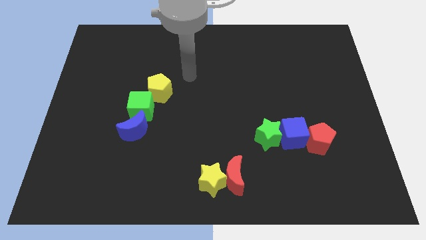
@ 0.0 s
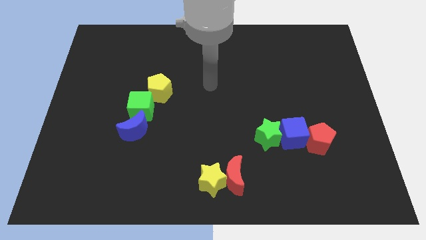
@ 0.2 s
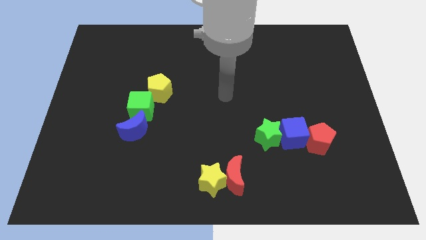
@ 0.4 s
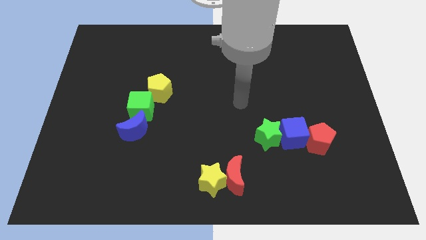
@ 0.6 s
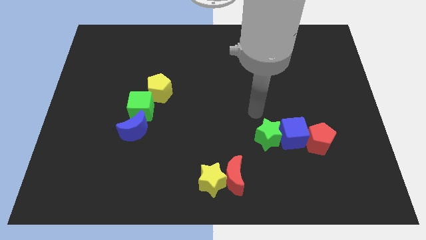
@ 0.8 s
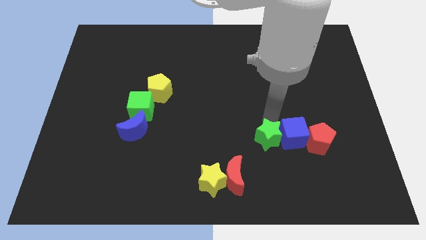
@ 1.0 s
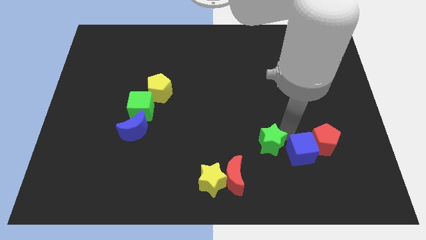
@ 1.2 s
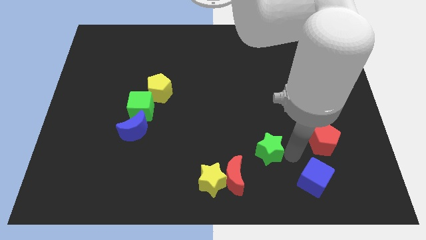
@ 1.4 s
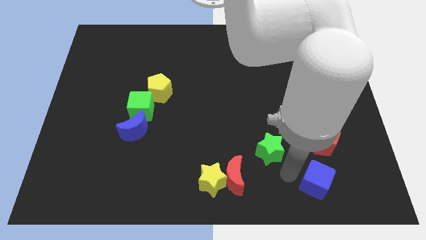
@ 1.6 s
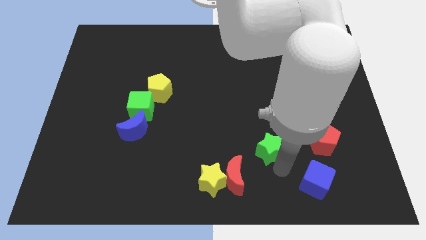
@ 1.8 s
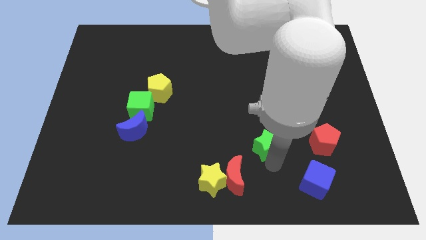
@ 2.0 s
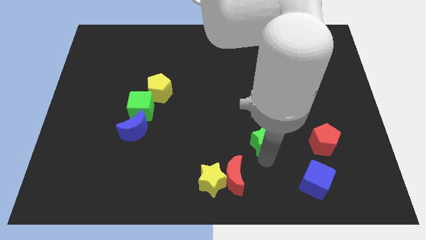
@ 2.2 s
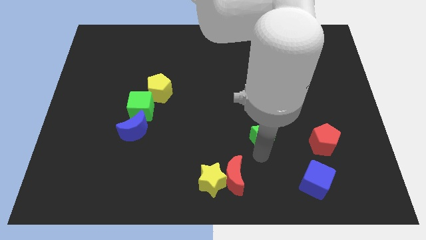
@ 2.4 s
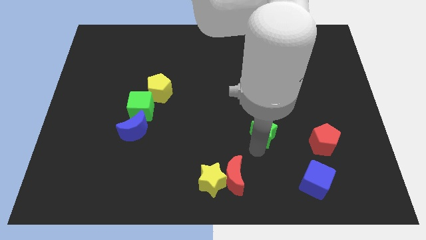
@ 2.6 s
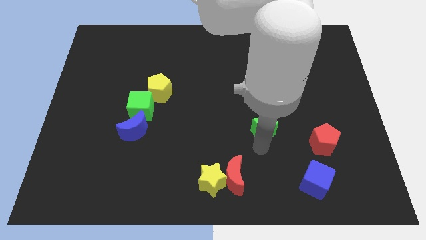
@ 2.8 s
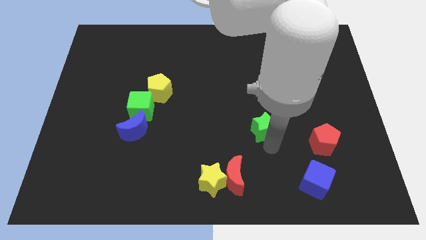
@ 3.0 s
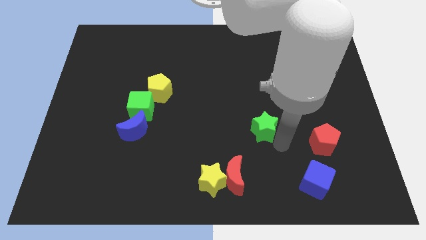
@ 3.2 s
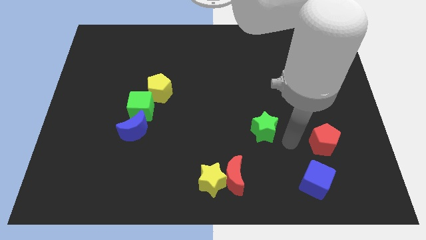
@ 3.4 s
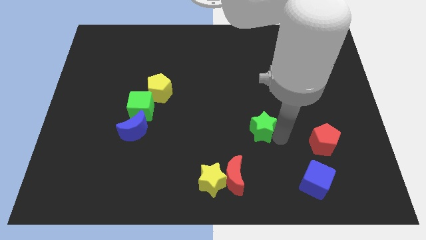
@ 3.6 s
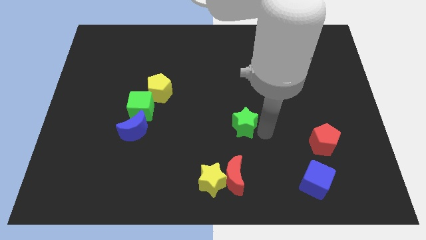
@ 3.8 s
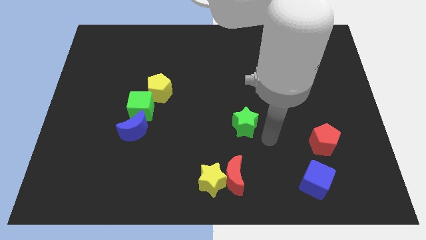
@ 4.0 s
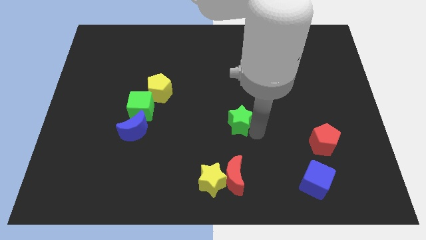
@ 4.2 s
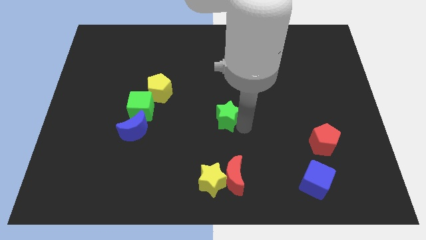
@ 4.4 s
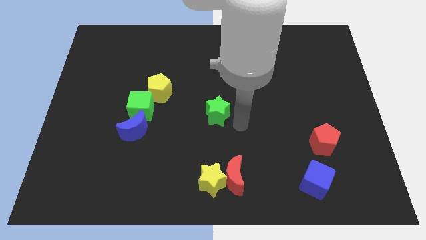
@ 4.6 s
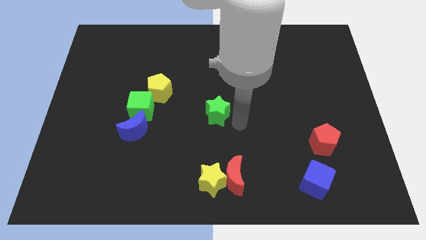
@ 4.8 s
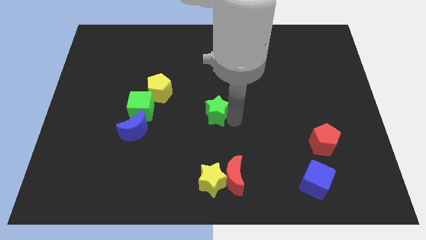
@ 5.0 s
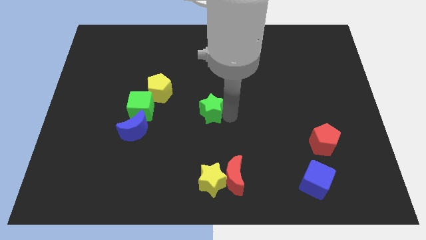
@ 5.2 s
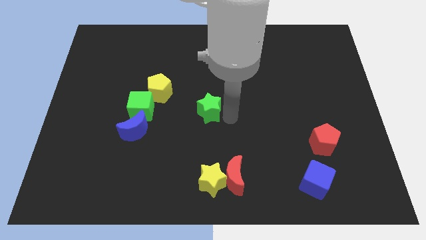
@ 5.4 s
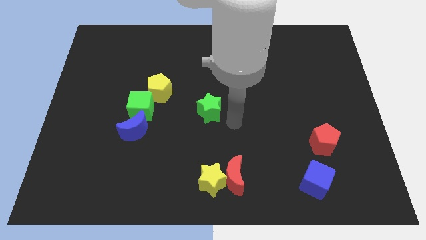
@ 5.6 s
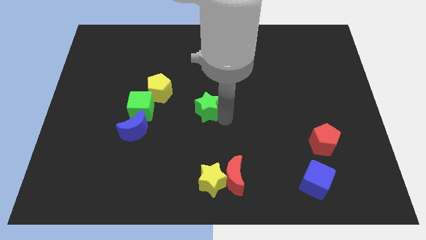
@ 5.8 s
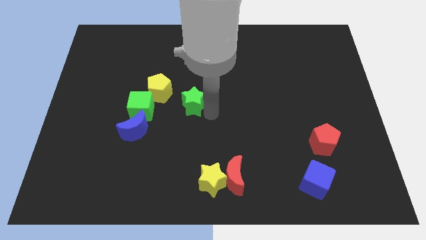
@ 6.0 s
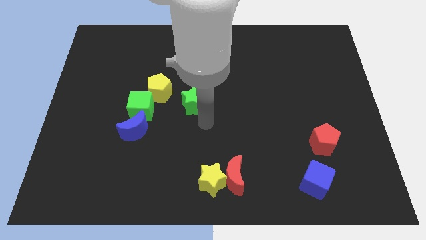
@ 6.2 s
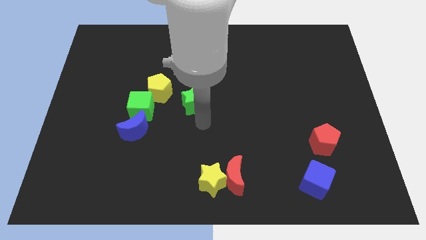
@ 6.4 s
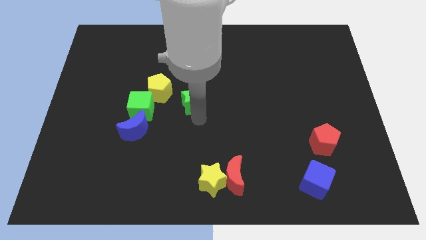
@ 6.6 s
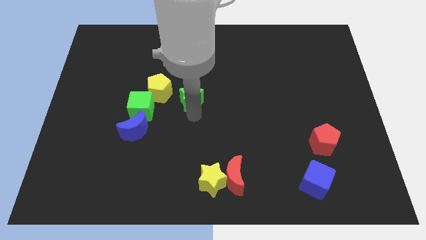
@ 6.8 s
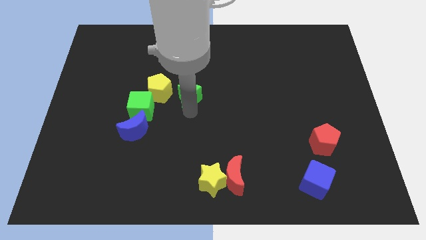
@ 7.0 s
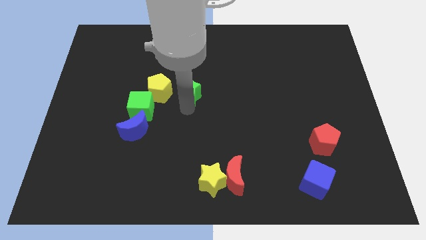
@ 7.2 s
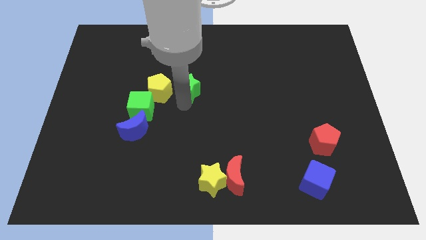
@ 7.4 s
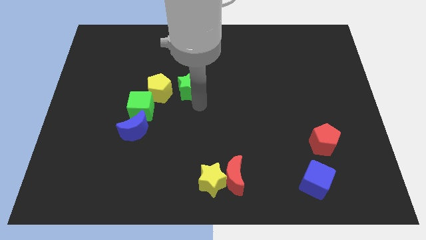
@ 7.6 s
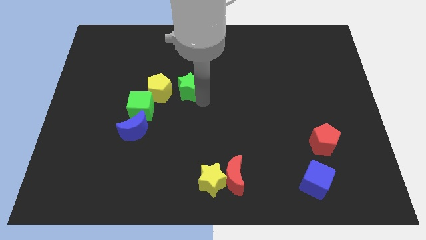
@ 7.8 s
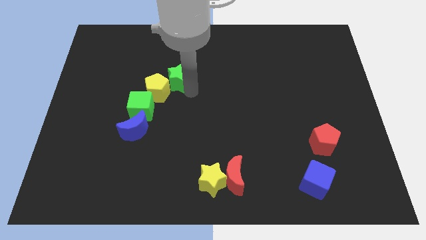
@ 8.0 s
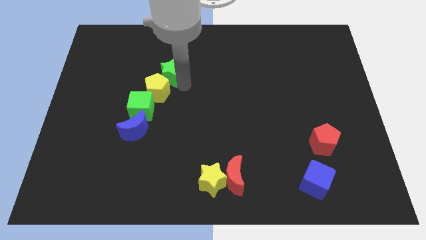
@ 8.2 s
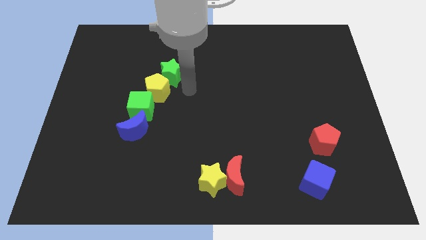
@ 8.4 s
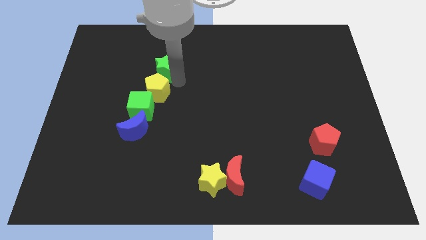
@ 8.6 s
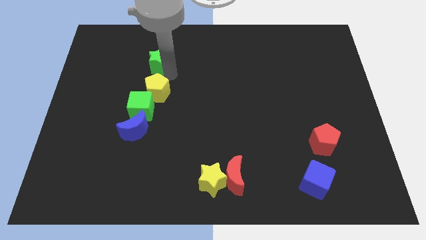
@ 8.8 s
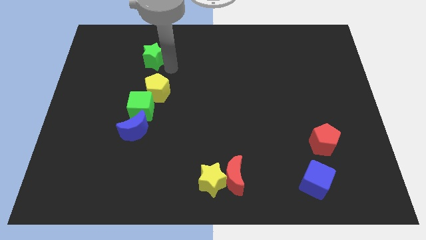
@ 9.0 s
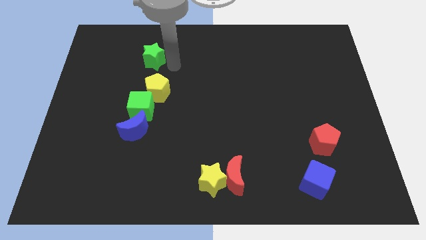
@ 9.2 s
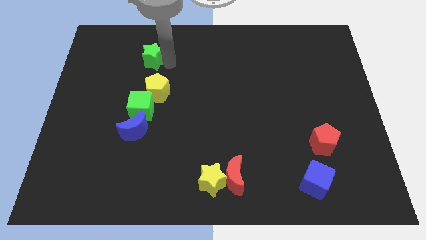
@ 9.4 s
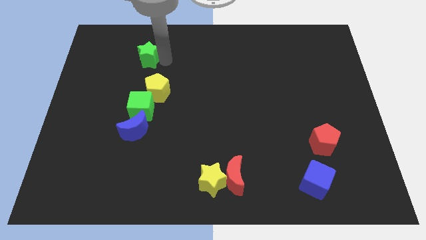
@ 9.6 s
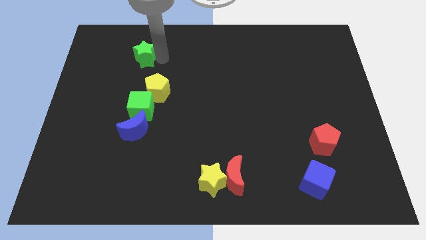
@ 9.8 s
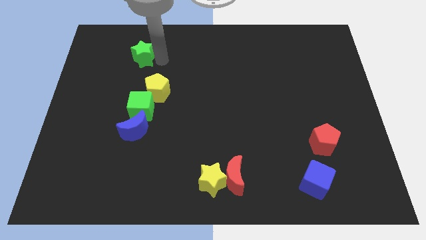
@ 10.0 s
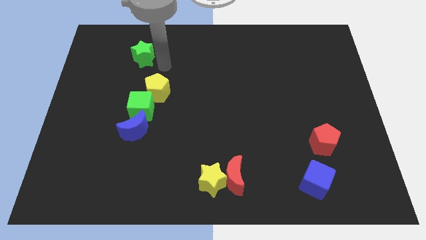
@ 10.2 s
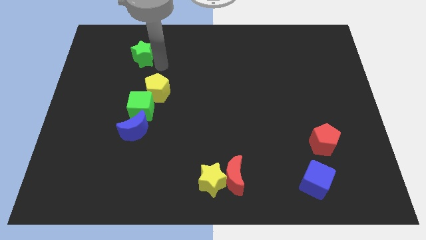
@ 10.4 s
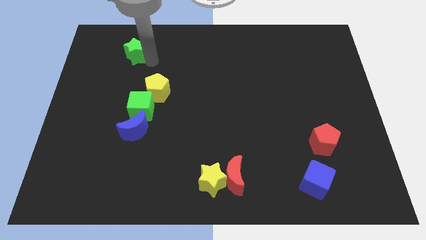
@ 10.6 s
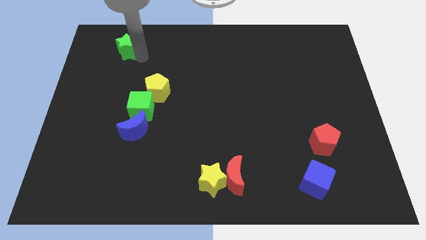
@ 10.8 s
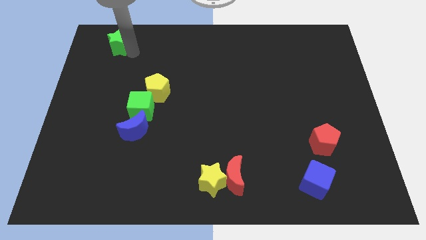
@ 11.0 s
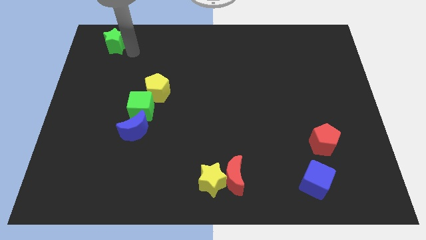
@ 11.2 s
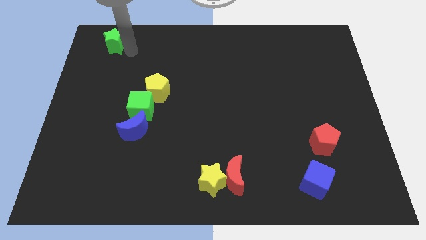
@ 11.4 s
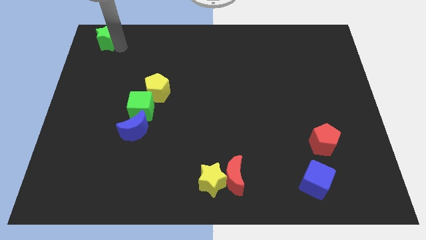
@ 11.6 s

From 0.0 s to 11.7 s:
push the green star to the top left

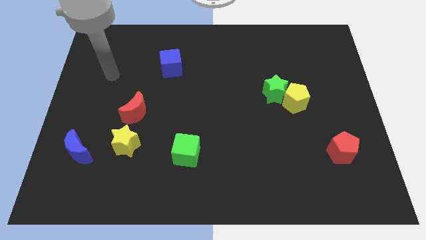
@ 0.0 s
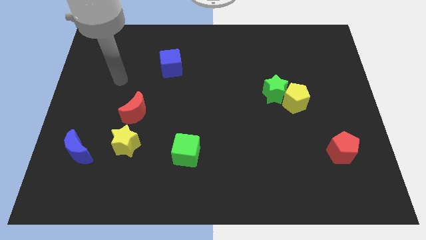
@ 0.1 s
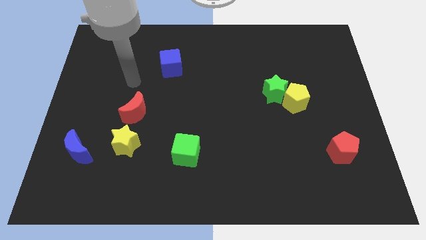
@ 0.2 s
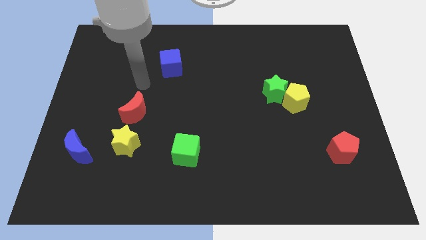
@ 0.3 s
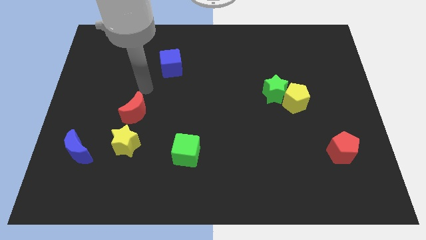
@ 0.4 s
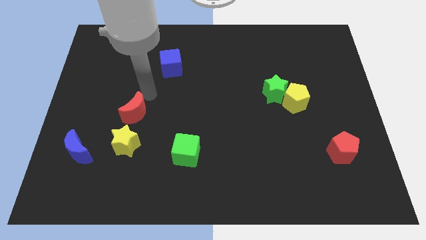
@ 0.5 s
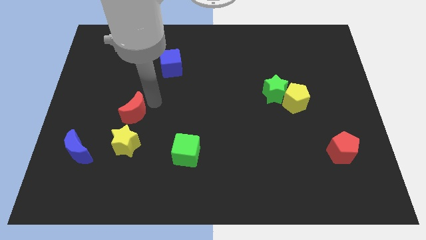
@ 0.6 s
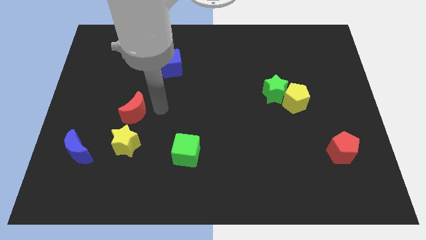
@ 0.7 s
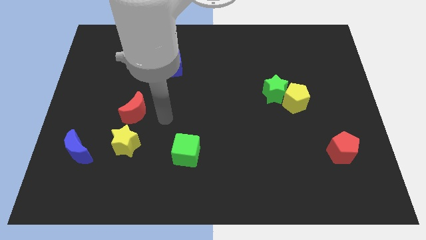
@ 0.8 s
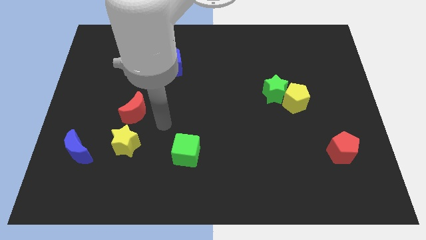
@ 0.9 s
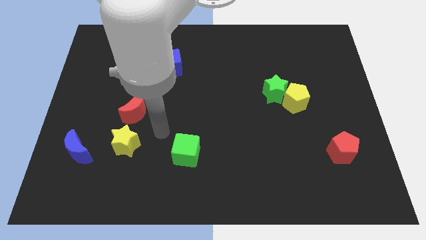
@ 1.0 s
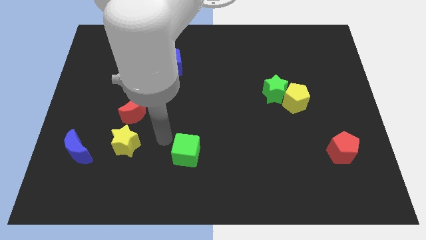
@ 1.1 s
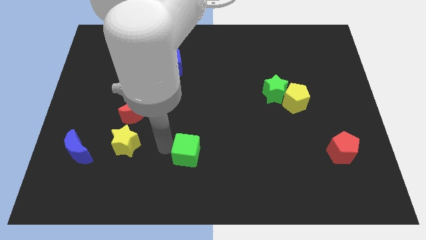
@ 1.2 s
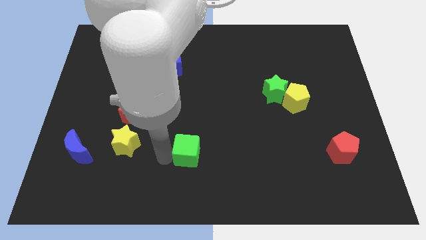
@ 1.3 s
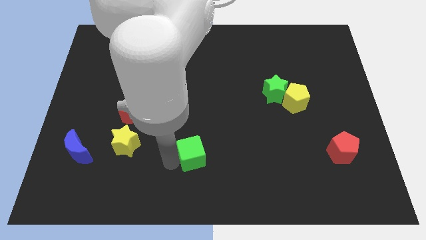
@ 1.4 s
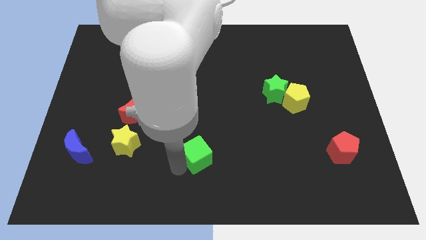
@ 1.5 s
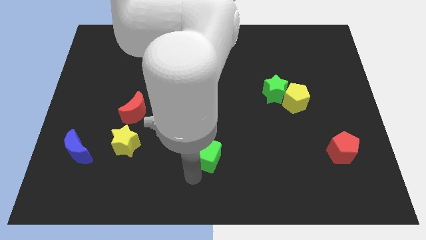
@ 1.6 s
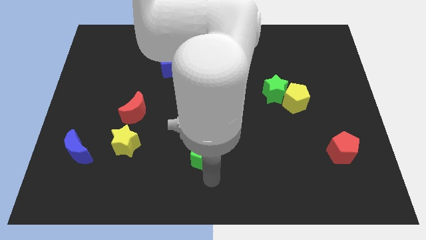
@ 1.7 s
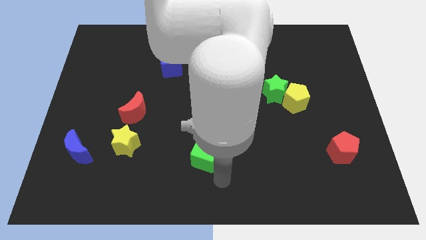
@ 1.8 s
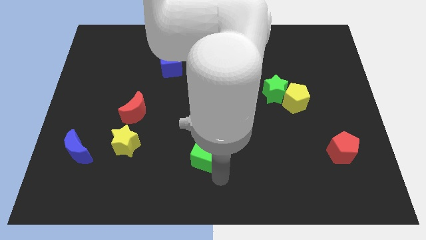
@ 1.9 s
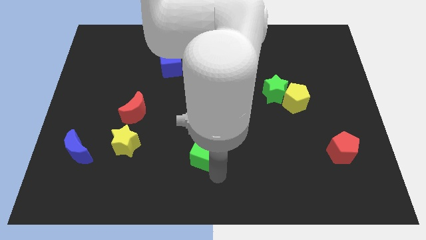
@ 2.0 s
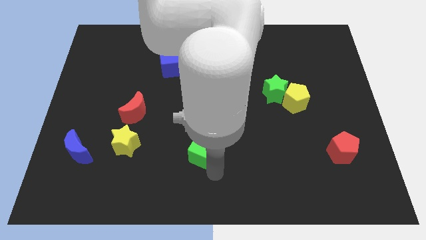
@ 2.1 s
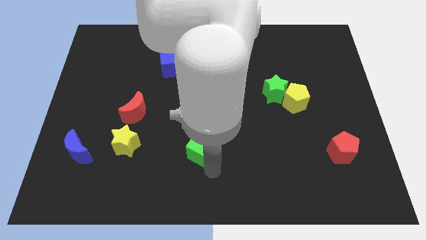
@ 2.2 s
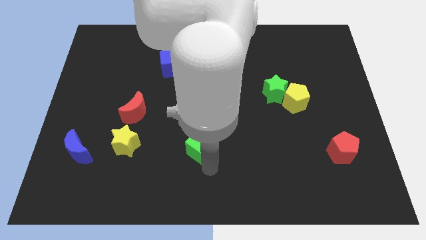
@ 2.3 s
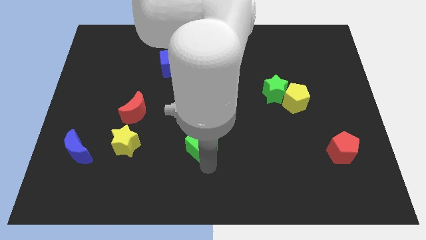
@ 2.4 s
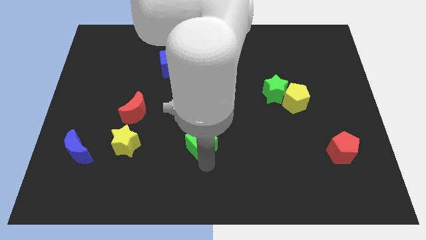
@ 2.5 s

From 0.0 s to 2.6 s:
push the green cube to the center of the board
